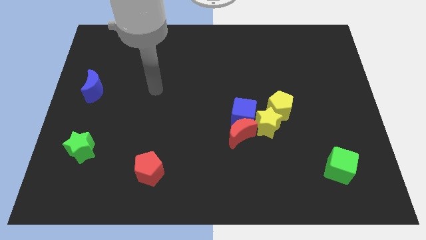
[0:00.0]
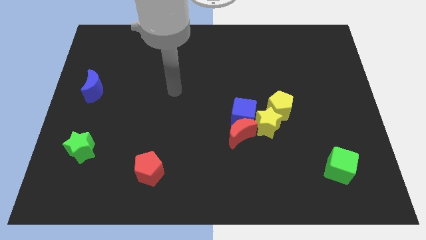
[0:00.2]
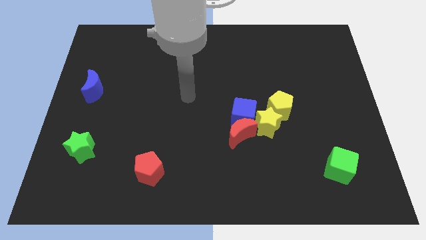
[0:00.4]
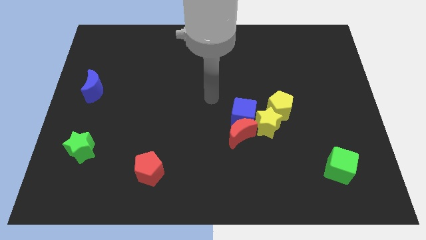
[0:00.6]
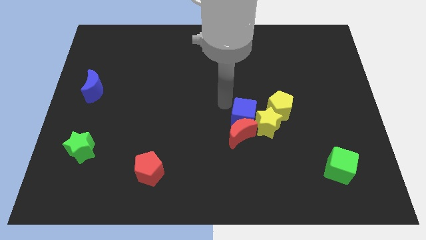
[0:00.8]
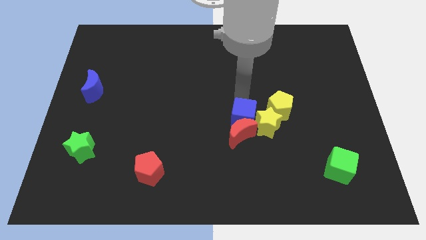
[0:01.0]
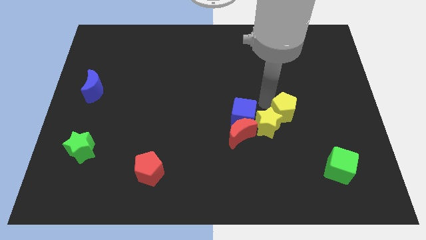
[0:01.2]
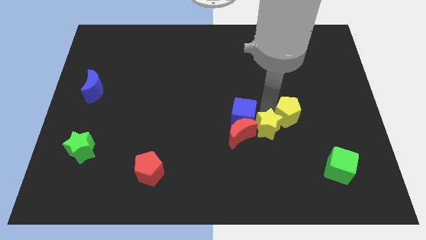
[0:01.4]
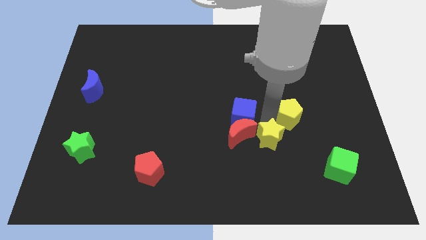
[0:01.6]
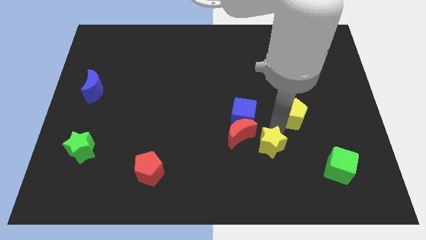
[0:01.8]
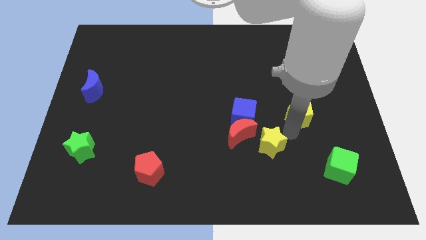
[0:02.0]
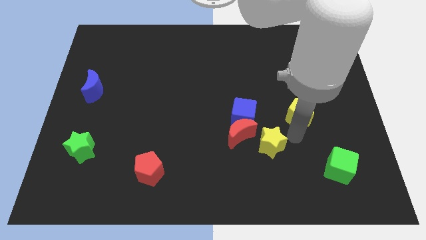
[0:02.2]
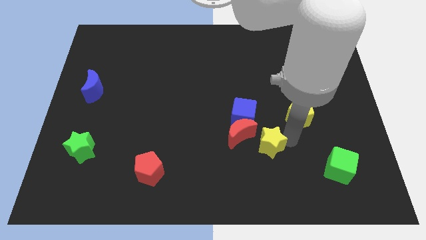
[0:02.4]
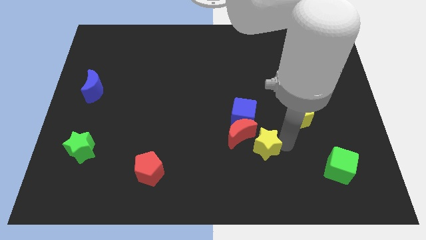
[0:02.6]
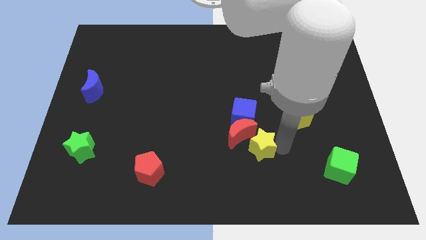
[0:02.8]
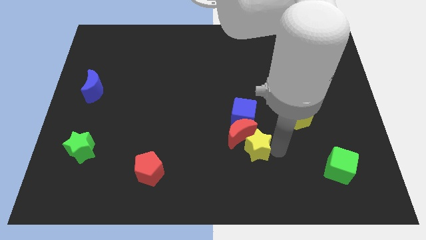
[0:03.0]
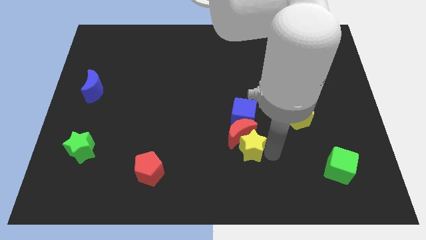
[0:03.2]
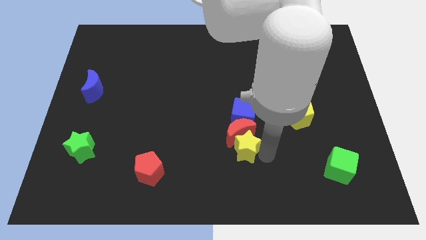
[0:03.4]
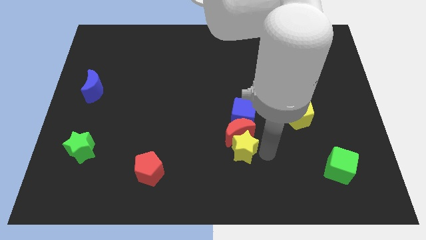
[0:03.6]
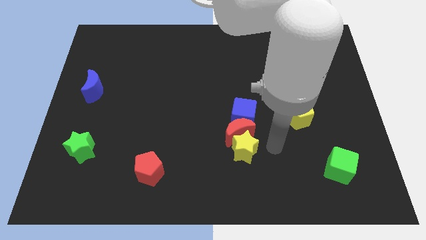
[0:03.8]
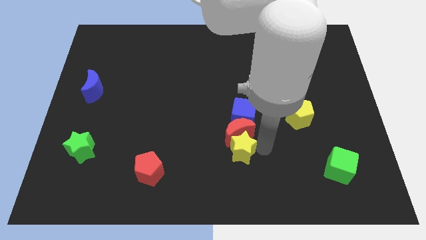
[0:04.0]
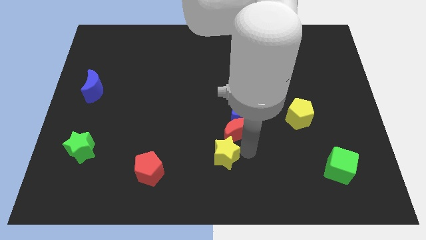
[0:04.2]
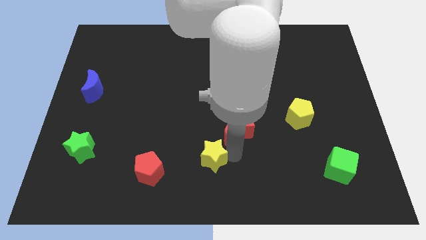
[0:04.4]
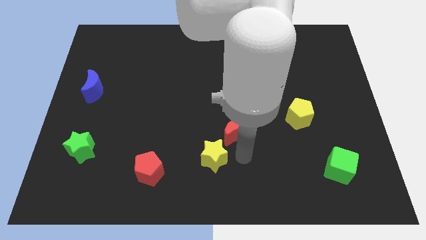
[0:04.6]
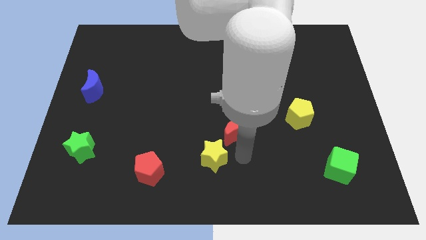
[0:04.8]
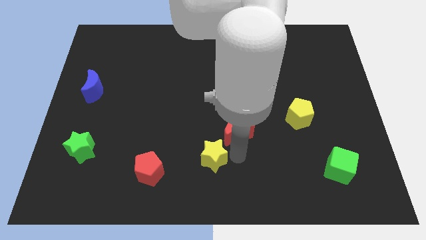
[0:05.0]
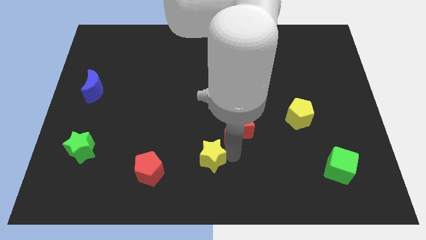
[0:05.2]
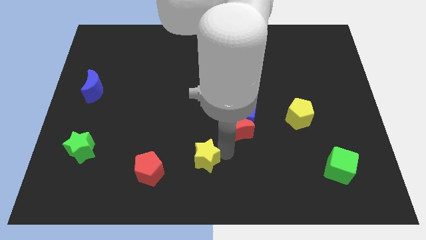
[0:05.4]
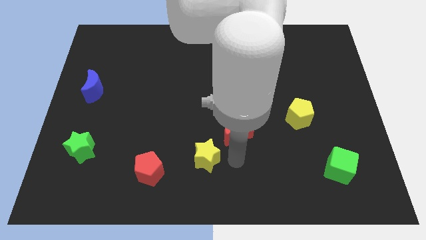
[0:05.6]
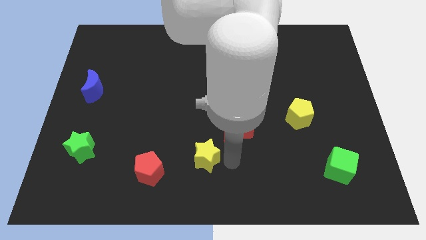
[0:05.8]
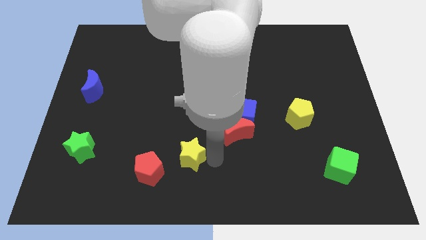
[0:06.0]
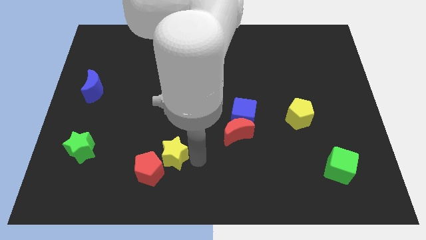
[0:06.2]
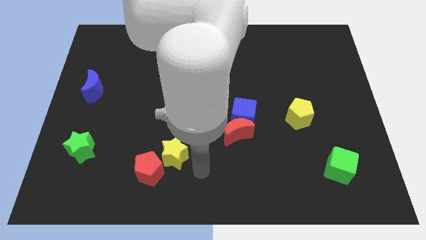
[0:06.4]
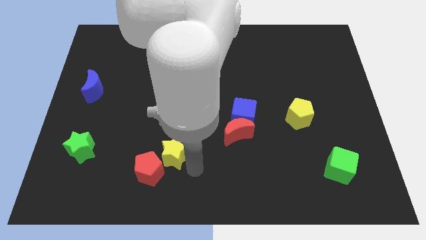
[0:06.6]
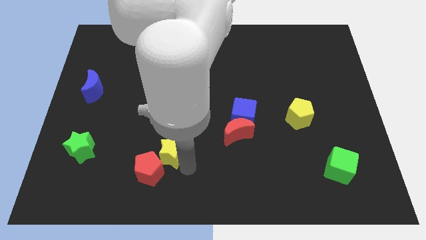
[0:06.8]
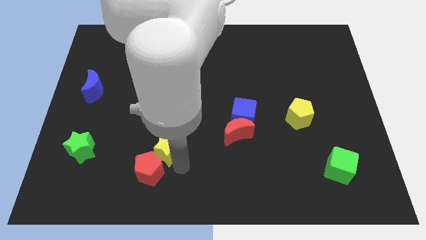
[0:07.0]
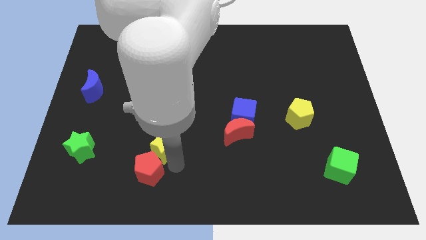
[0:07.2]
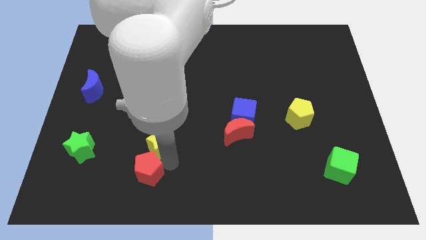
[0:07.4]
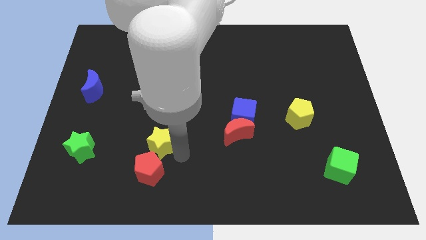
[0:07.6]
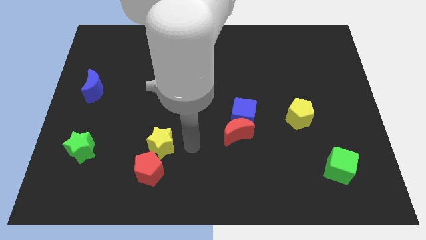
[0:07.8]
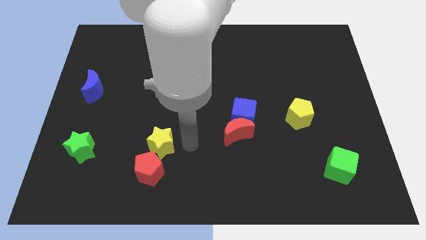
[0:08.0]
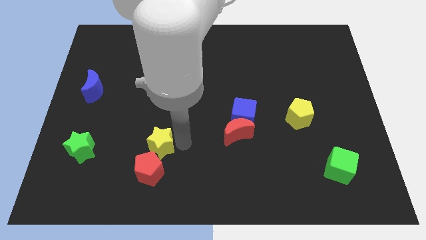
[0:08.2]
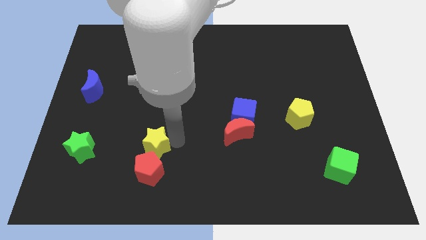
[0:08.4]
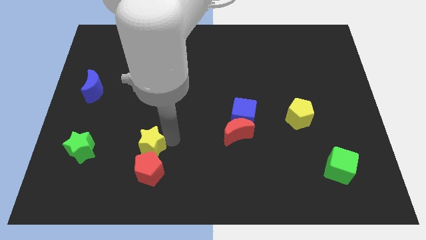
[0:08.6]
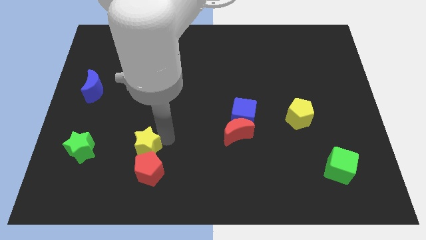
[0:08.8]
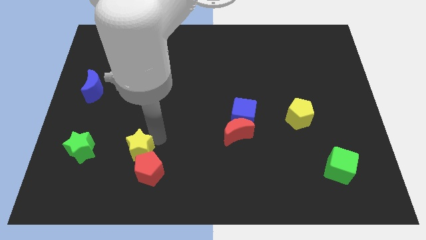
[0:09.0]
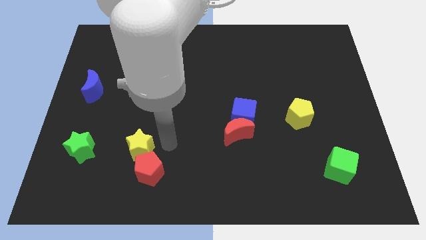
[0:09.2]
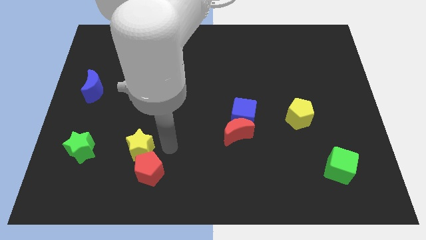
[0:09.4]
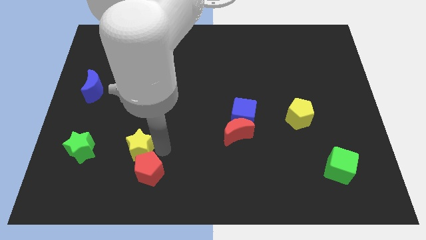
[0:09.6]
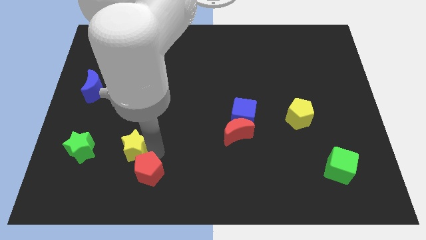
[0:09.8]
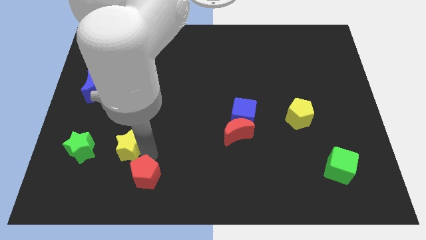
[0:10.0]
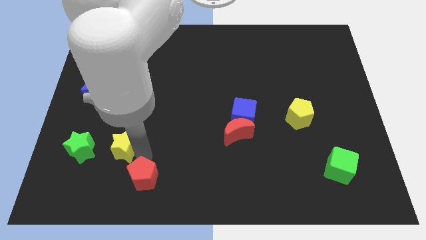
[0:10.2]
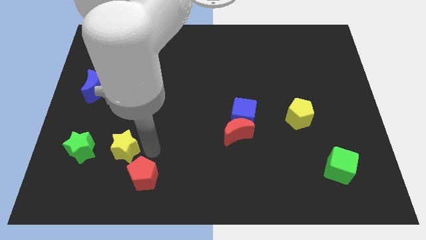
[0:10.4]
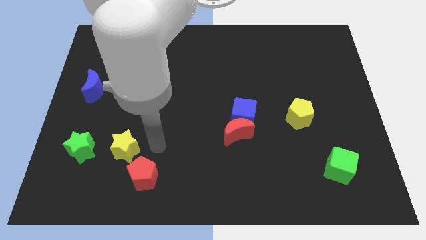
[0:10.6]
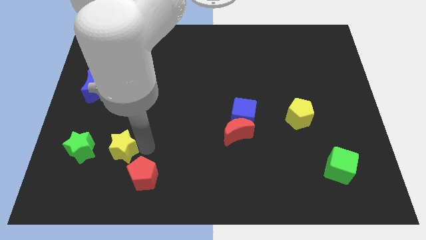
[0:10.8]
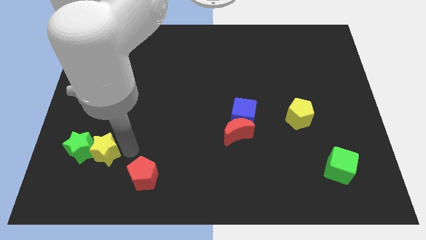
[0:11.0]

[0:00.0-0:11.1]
slide the yellow star towards the green star

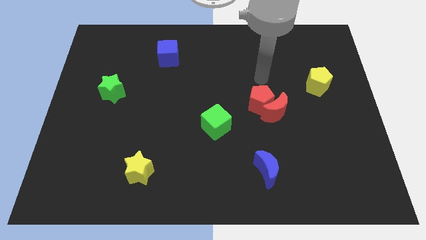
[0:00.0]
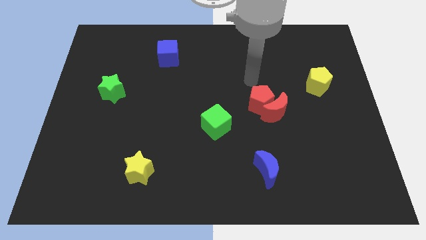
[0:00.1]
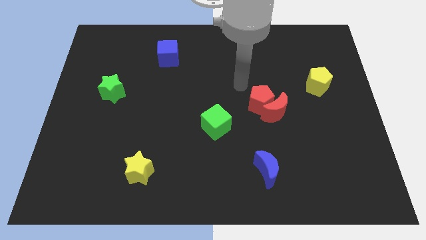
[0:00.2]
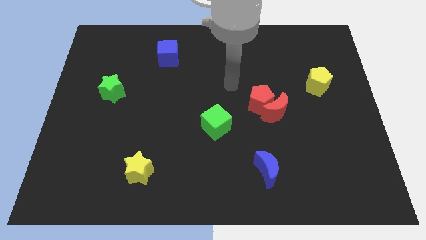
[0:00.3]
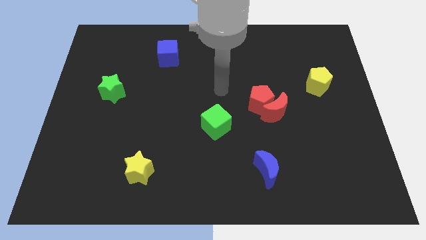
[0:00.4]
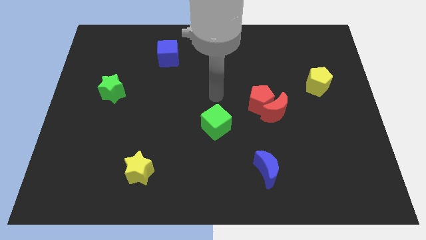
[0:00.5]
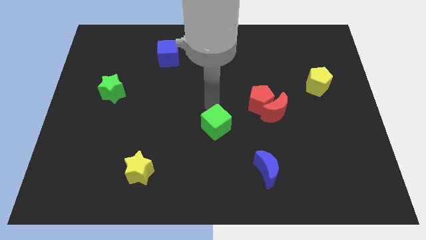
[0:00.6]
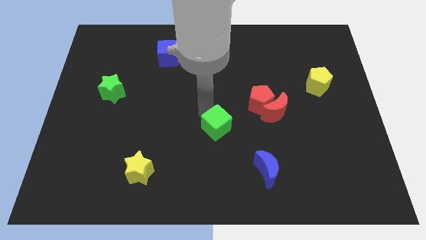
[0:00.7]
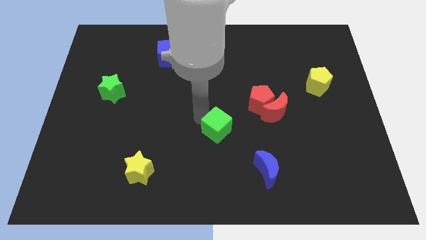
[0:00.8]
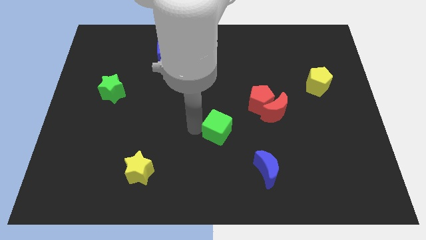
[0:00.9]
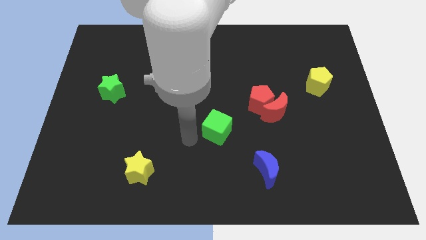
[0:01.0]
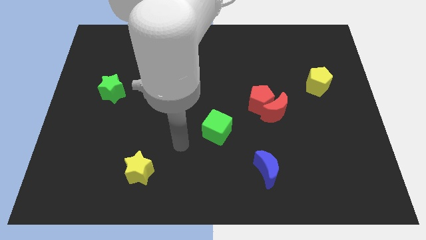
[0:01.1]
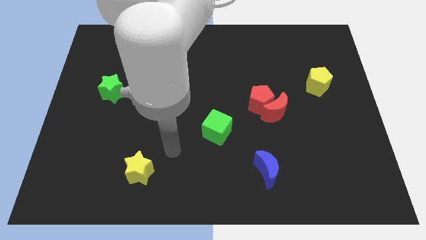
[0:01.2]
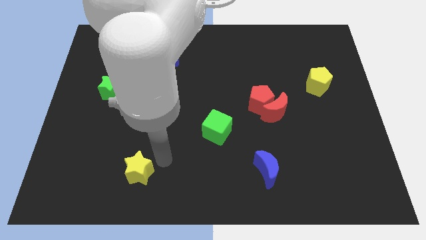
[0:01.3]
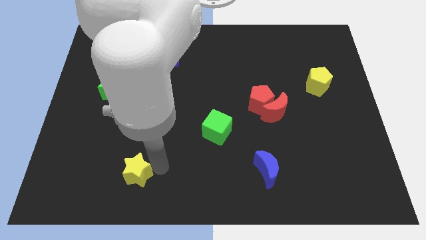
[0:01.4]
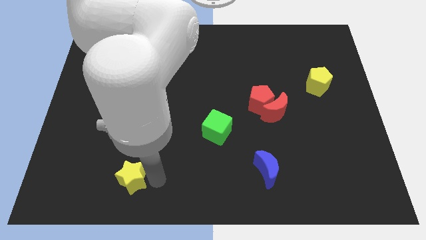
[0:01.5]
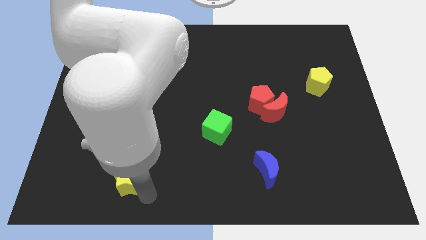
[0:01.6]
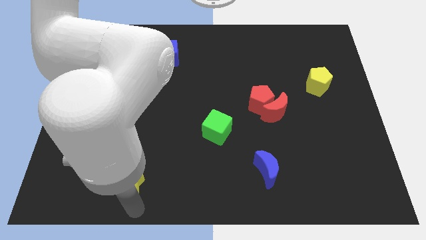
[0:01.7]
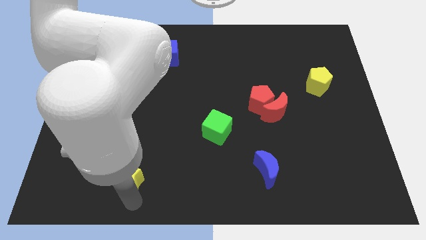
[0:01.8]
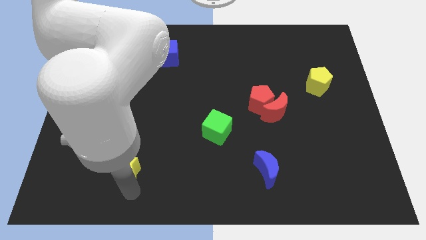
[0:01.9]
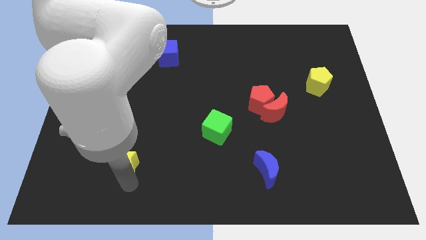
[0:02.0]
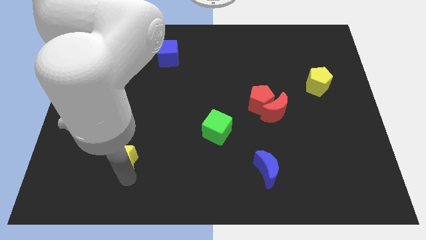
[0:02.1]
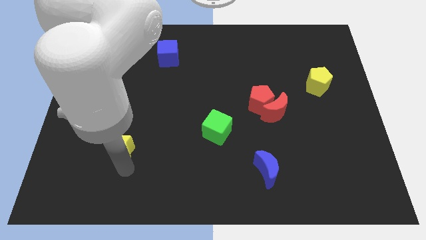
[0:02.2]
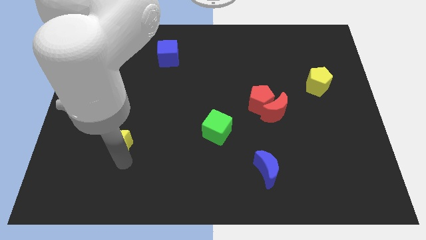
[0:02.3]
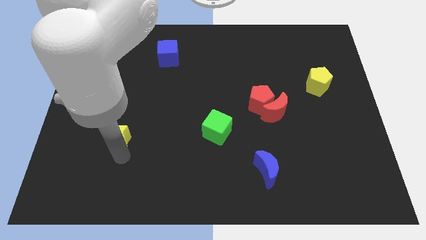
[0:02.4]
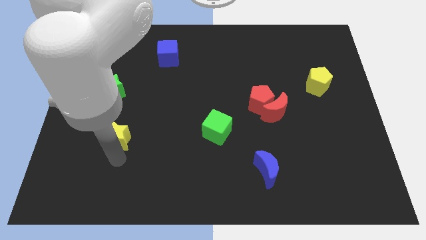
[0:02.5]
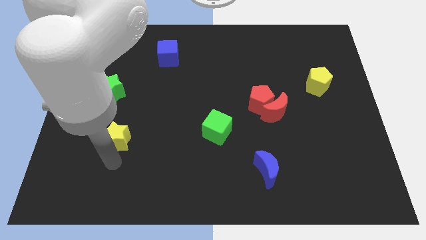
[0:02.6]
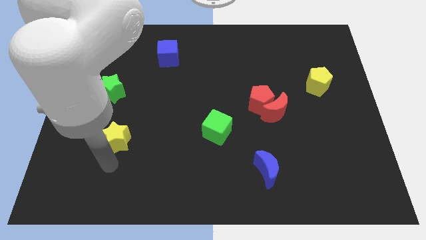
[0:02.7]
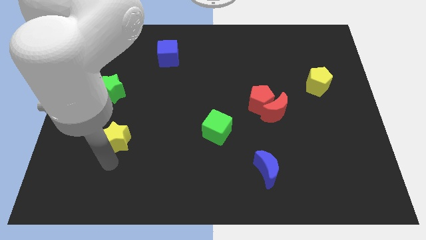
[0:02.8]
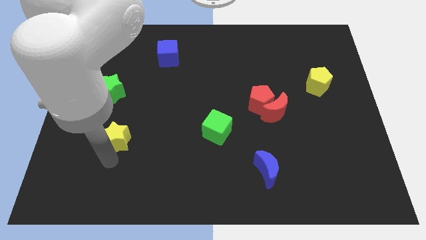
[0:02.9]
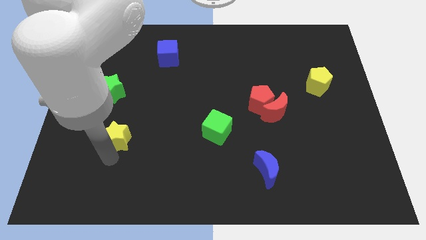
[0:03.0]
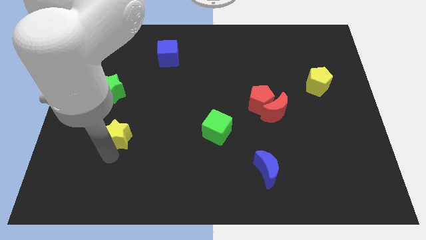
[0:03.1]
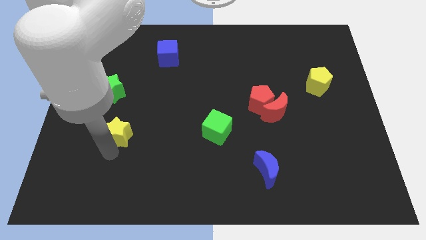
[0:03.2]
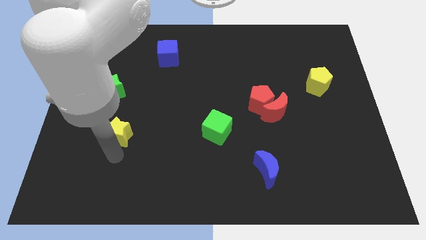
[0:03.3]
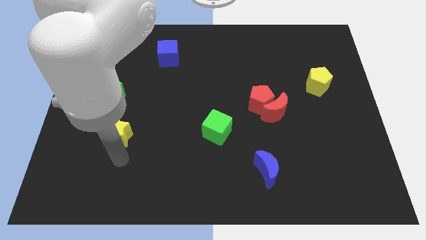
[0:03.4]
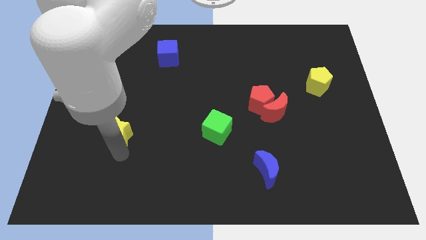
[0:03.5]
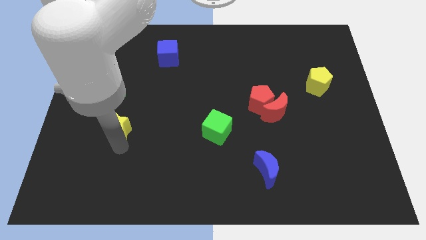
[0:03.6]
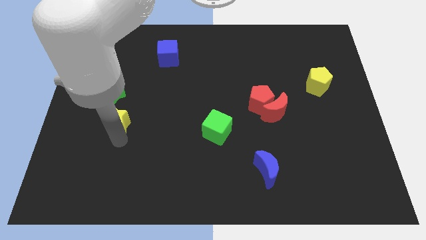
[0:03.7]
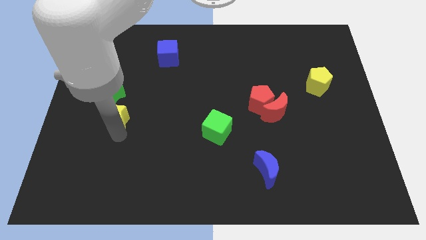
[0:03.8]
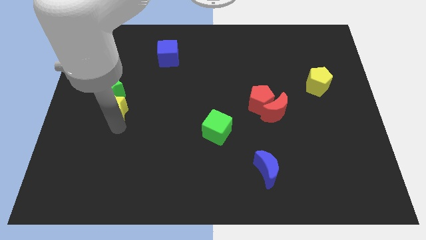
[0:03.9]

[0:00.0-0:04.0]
push the yellow star close to the green star
